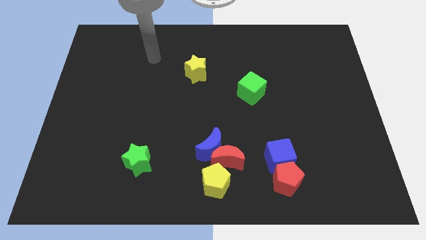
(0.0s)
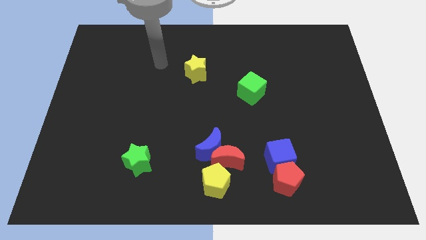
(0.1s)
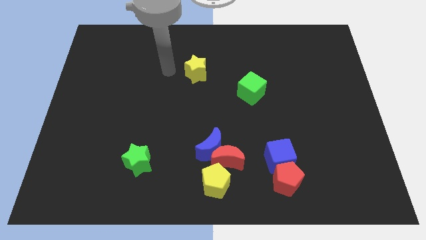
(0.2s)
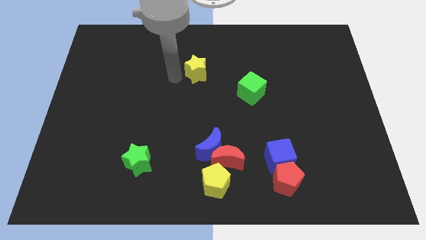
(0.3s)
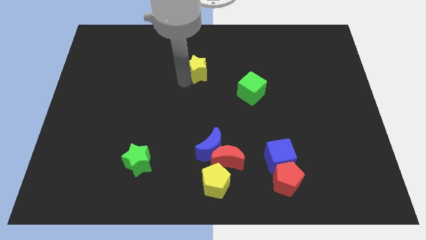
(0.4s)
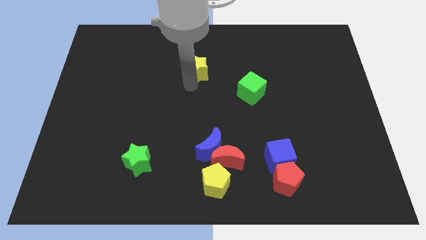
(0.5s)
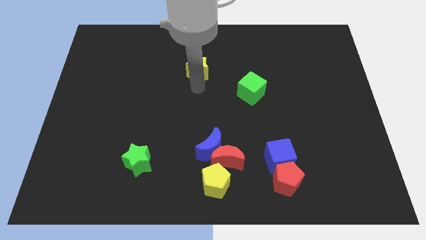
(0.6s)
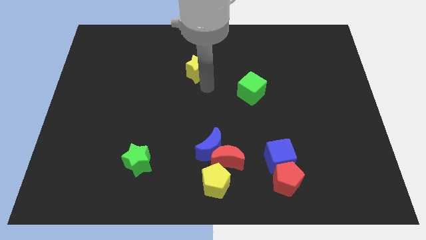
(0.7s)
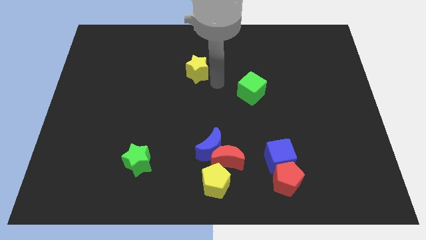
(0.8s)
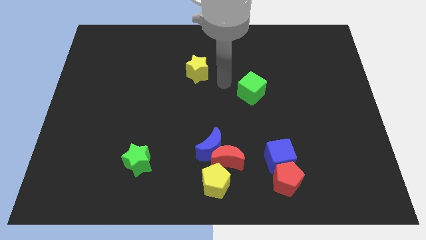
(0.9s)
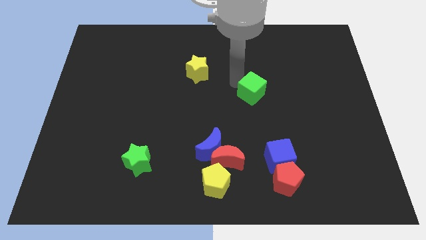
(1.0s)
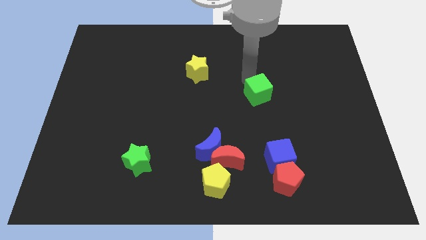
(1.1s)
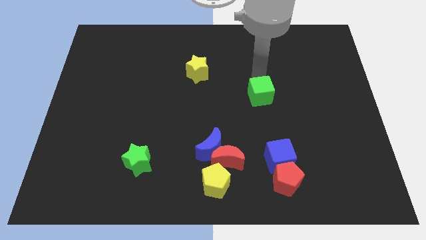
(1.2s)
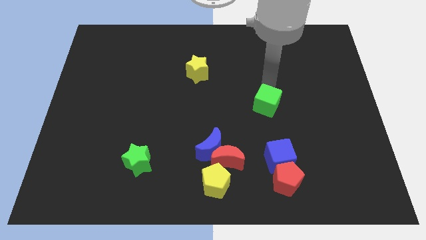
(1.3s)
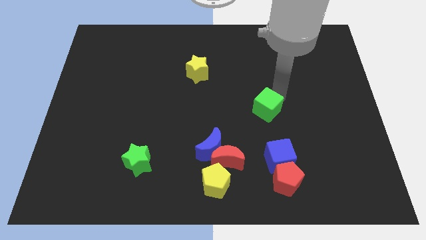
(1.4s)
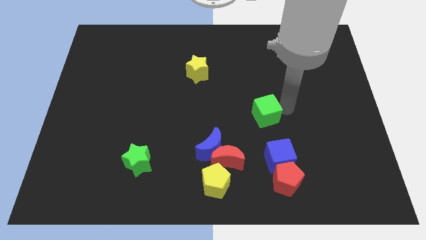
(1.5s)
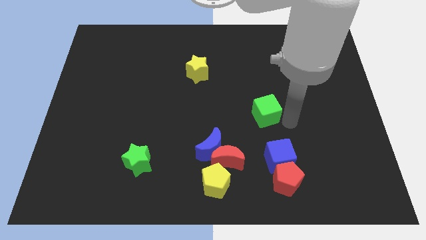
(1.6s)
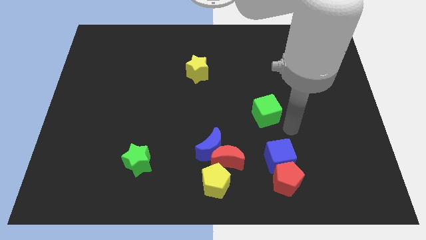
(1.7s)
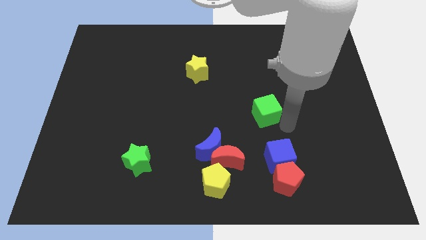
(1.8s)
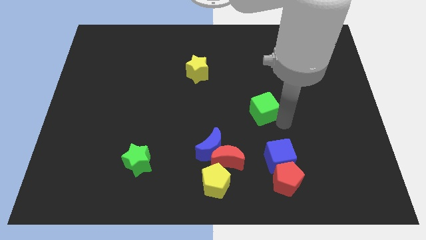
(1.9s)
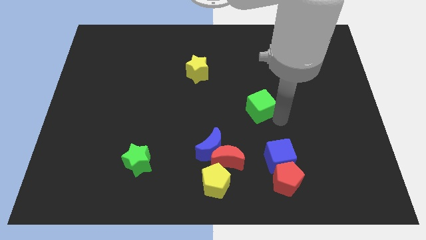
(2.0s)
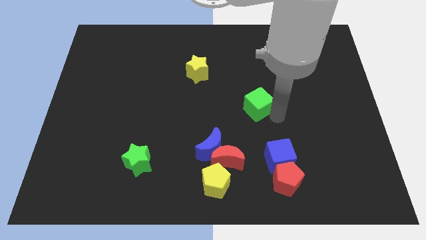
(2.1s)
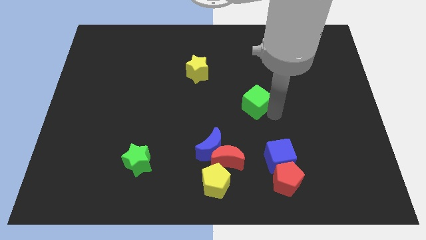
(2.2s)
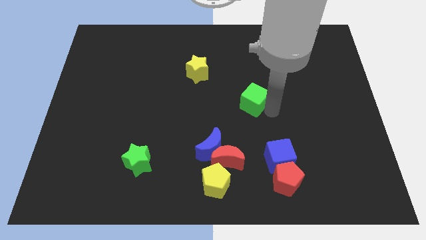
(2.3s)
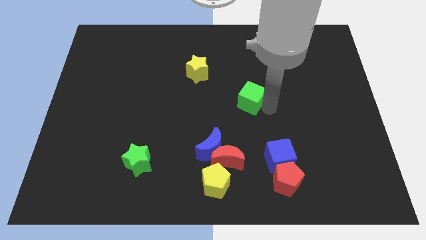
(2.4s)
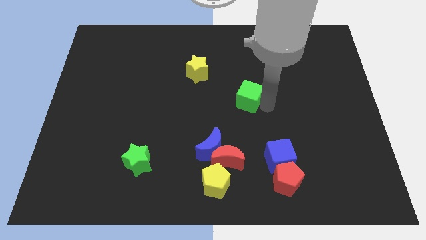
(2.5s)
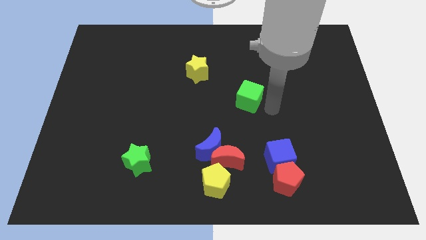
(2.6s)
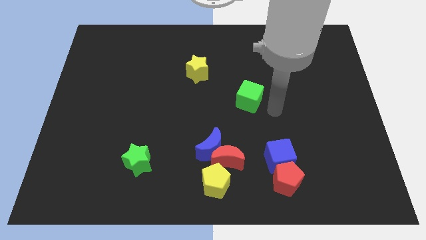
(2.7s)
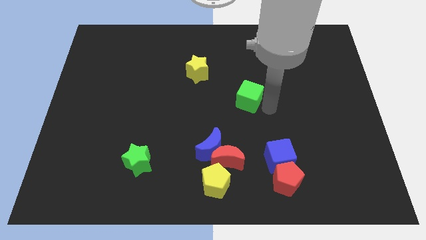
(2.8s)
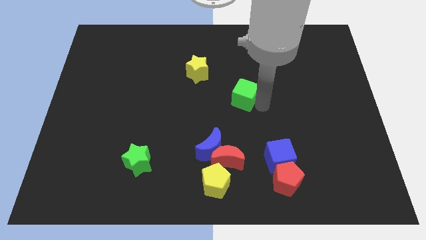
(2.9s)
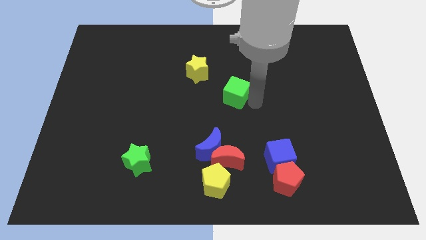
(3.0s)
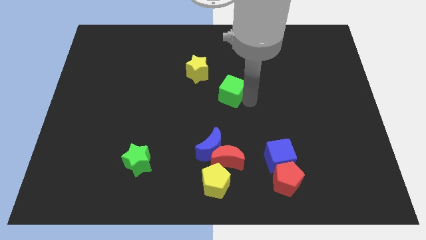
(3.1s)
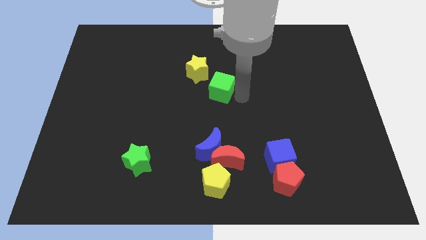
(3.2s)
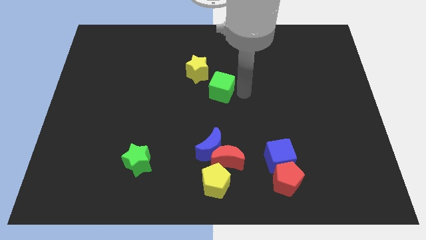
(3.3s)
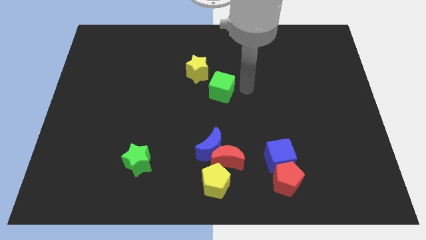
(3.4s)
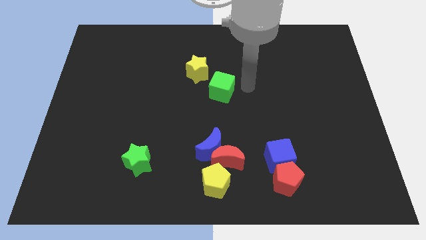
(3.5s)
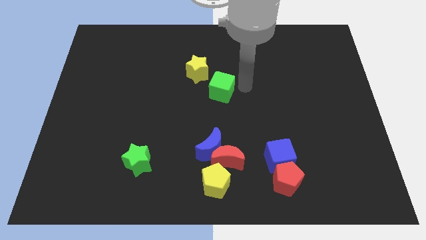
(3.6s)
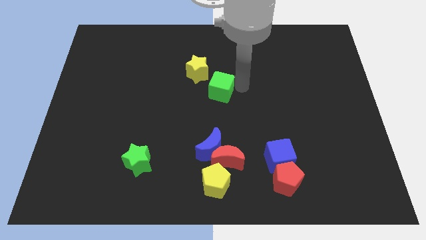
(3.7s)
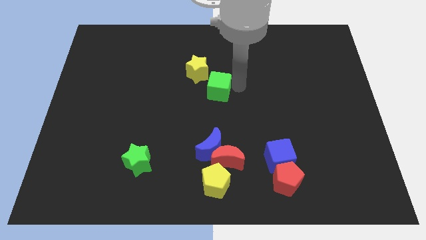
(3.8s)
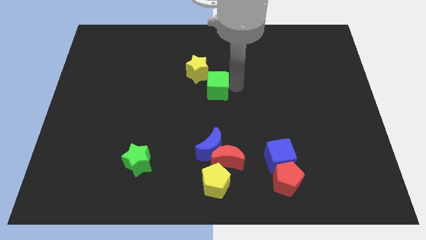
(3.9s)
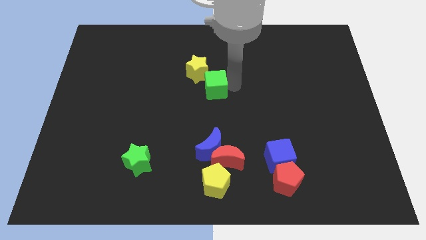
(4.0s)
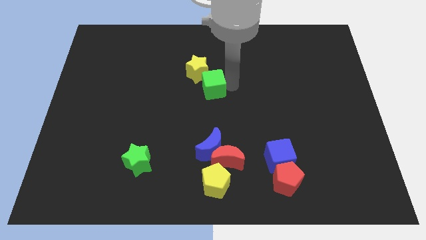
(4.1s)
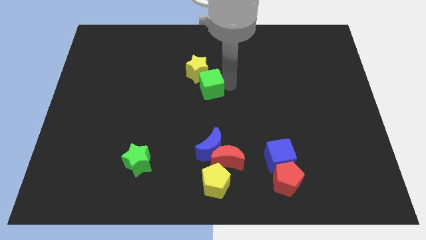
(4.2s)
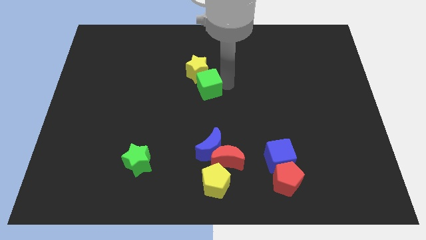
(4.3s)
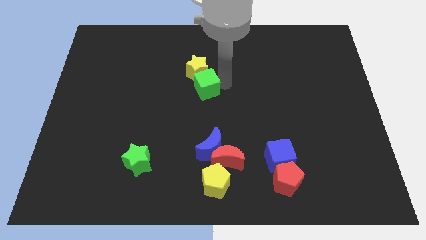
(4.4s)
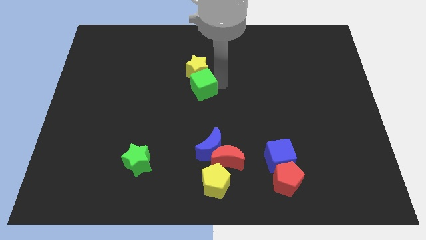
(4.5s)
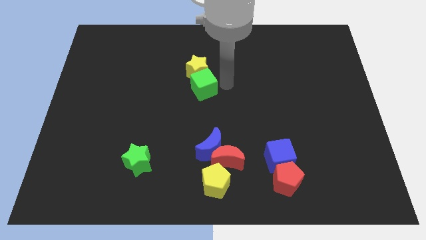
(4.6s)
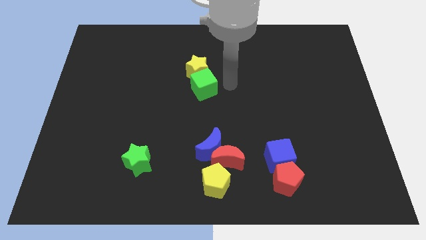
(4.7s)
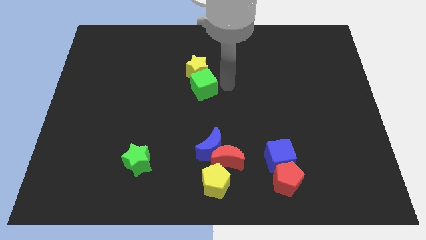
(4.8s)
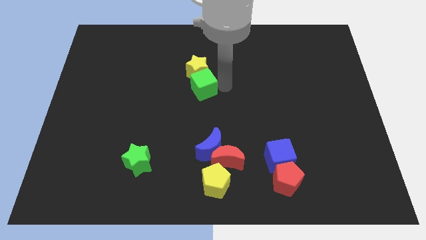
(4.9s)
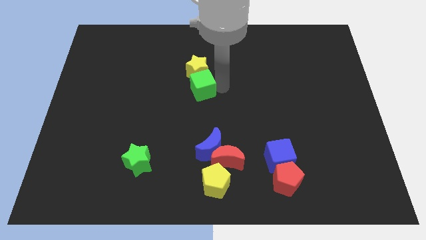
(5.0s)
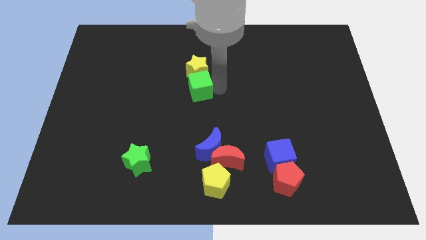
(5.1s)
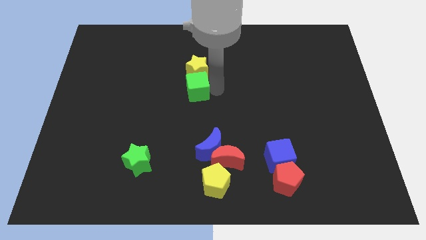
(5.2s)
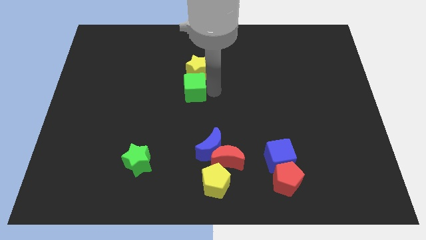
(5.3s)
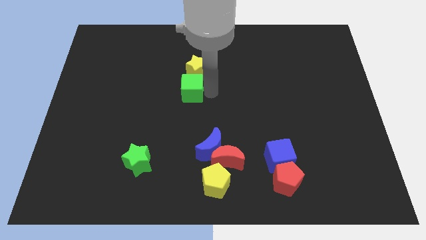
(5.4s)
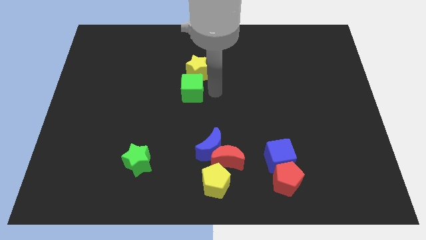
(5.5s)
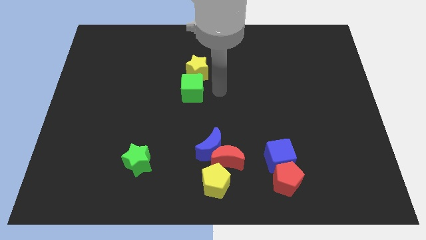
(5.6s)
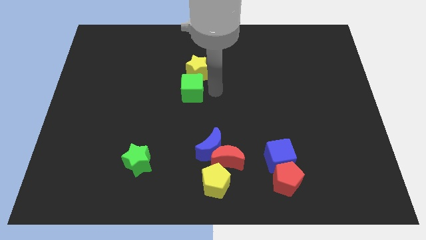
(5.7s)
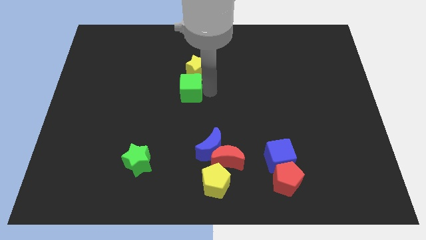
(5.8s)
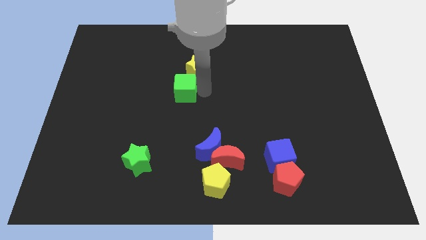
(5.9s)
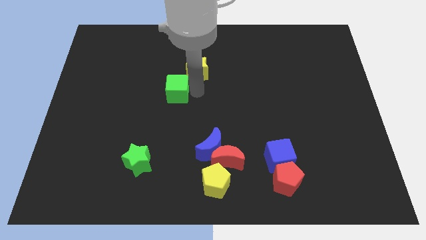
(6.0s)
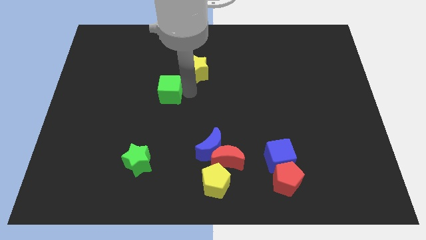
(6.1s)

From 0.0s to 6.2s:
push the green cube left

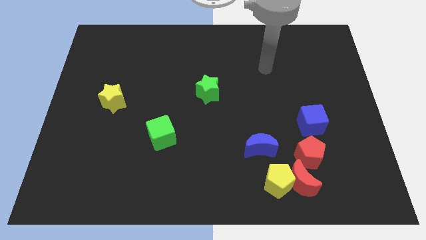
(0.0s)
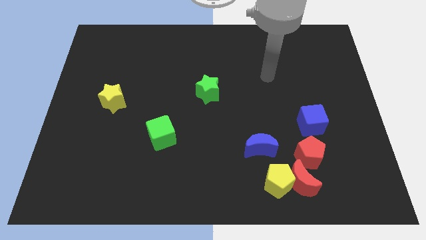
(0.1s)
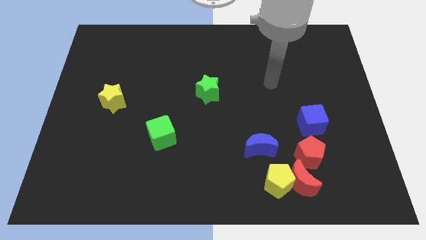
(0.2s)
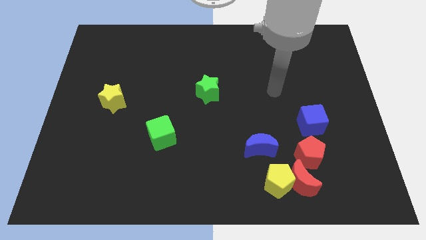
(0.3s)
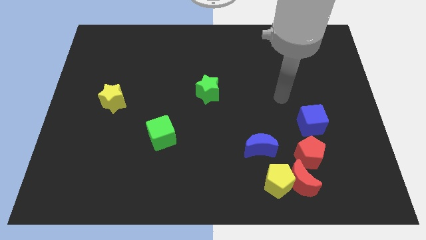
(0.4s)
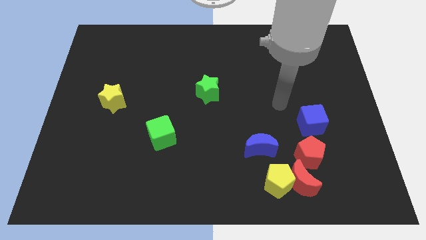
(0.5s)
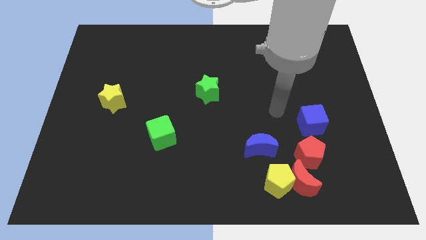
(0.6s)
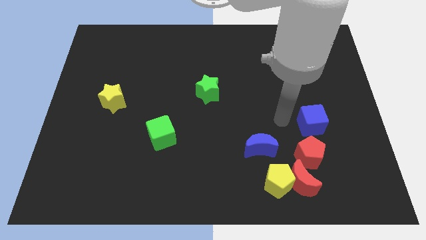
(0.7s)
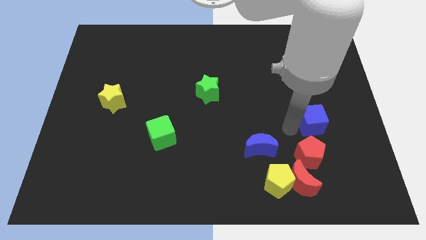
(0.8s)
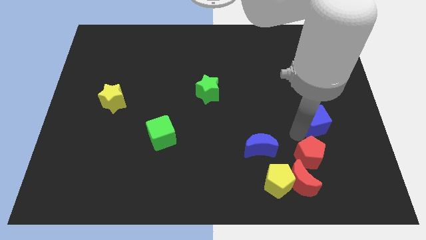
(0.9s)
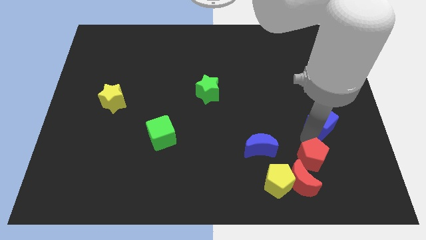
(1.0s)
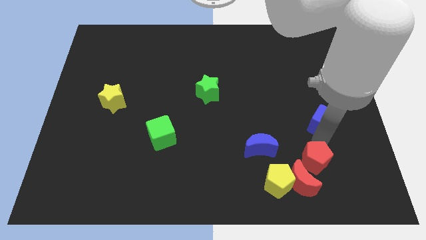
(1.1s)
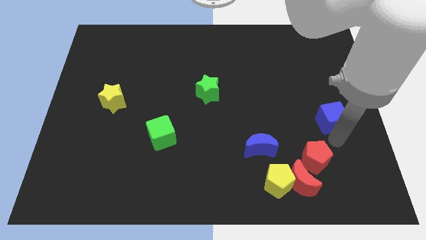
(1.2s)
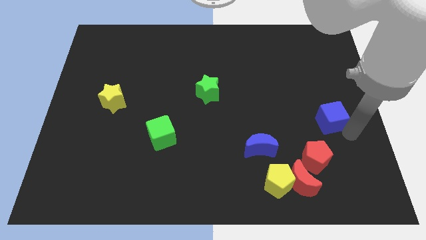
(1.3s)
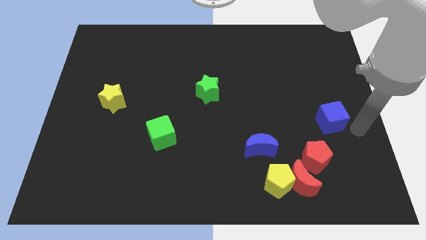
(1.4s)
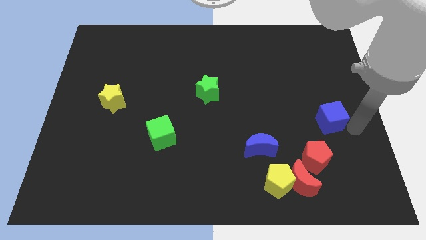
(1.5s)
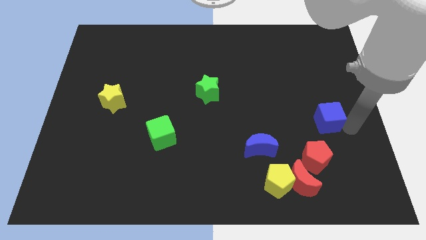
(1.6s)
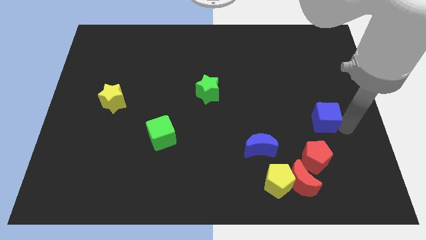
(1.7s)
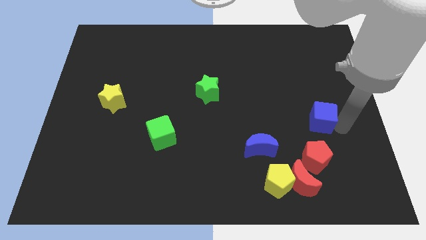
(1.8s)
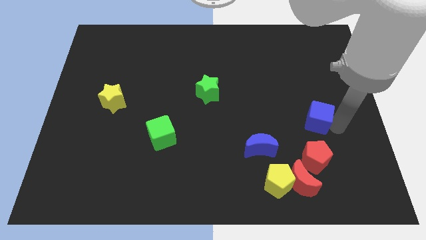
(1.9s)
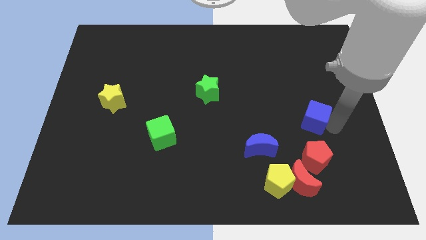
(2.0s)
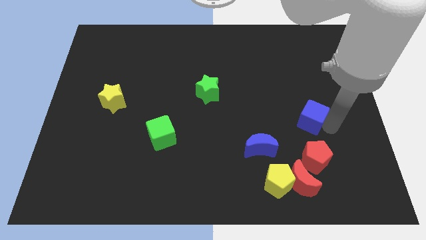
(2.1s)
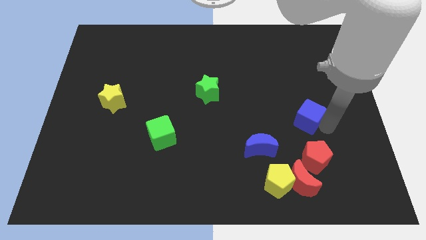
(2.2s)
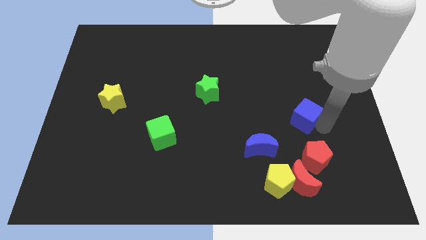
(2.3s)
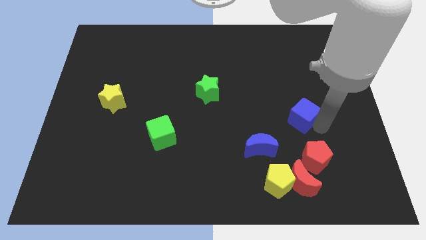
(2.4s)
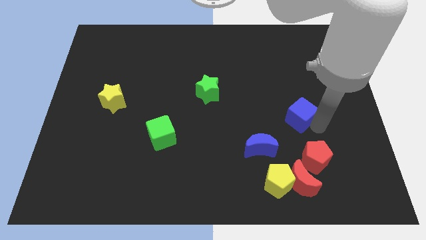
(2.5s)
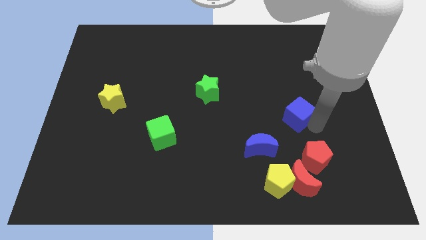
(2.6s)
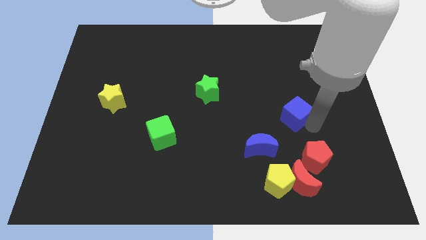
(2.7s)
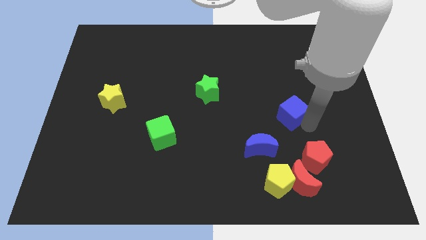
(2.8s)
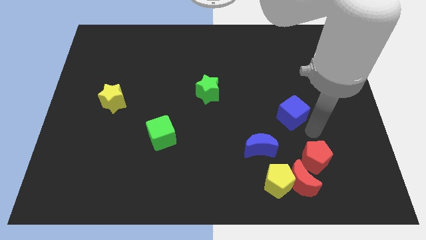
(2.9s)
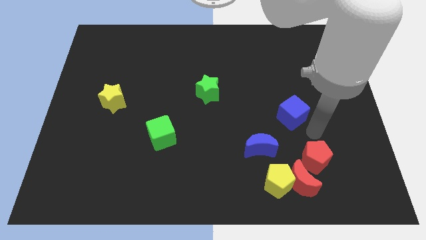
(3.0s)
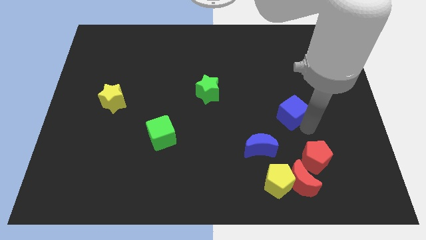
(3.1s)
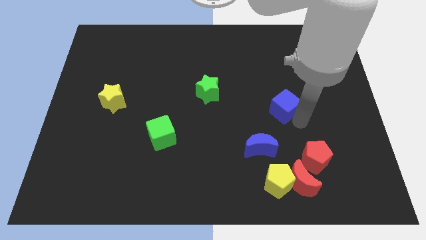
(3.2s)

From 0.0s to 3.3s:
move the blue cube somewhat up and left diagonally
